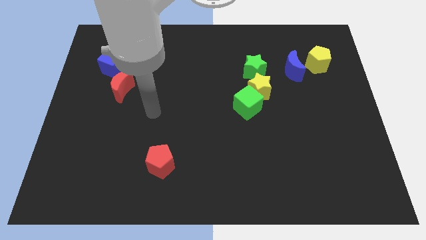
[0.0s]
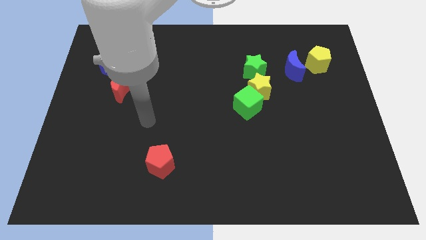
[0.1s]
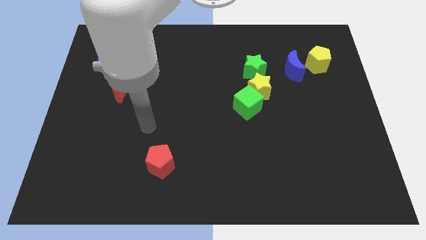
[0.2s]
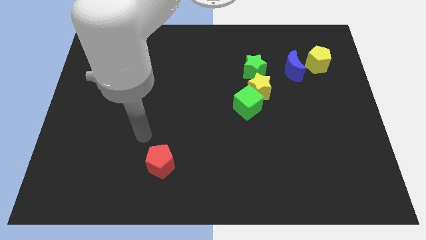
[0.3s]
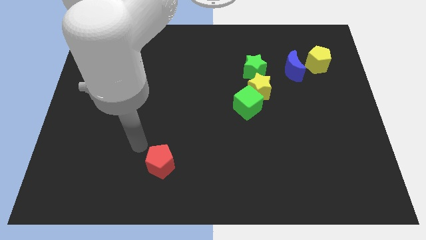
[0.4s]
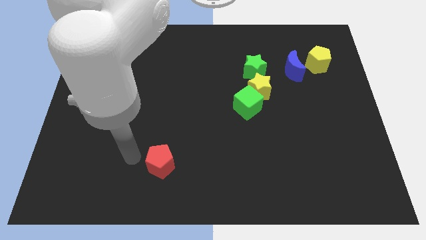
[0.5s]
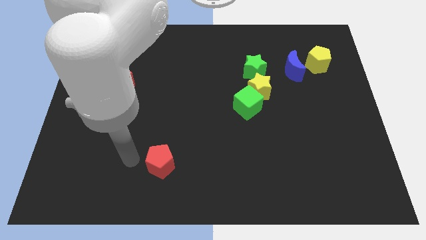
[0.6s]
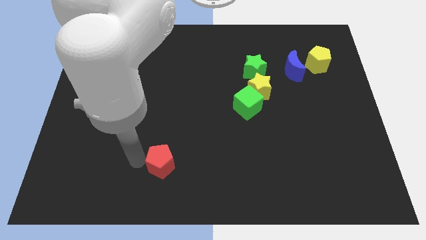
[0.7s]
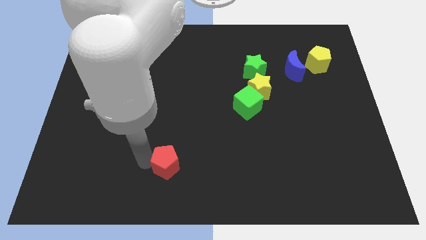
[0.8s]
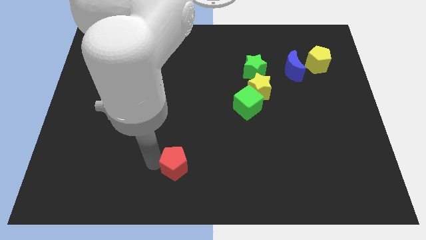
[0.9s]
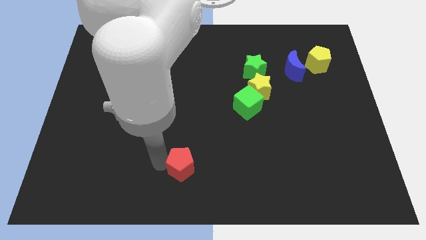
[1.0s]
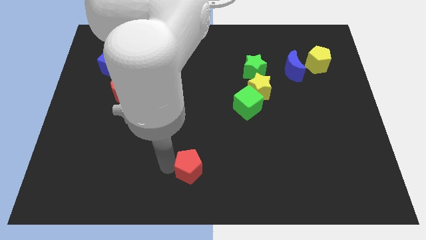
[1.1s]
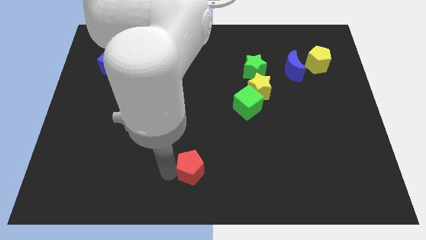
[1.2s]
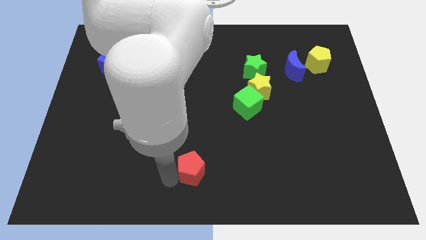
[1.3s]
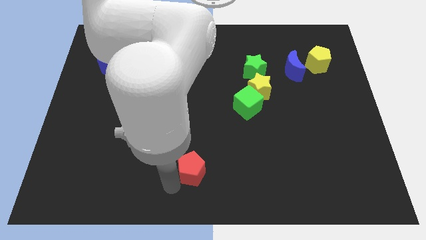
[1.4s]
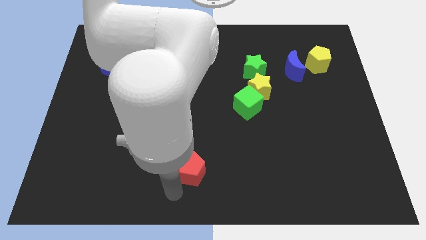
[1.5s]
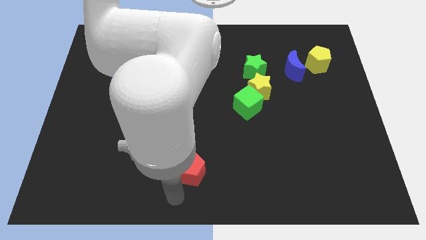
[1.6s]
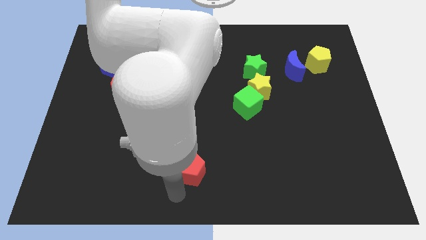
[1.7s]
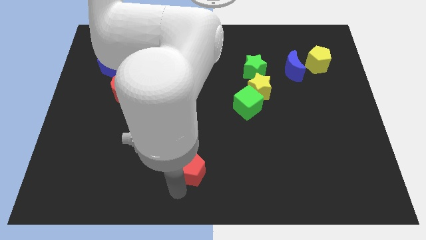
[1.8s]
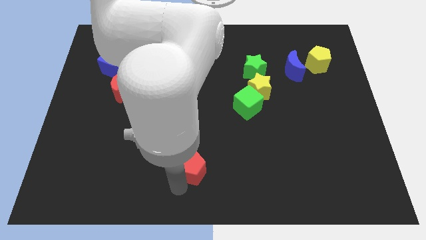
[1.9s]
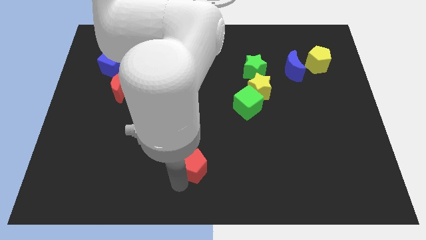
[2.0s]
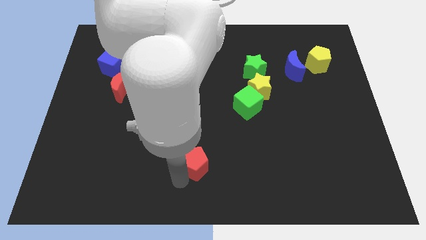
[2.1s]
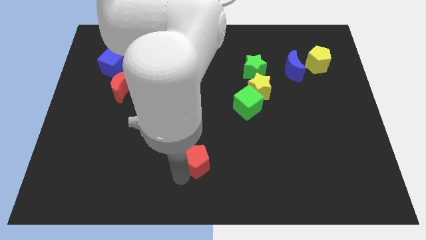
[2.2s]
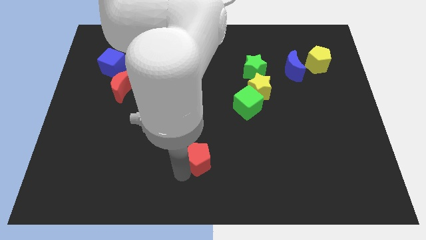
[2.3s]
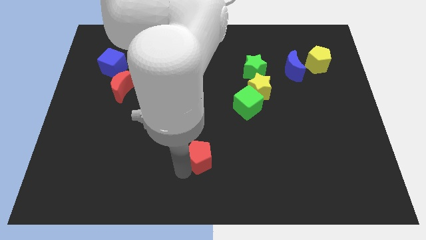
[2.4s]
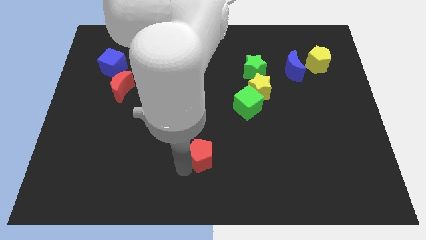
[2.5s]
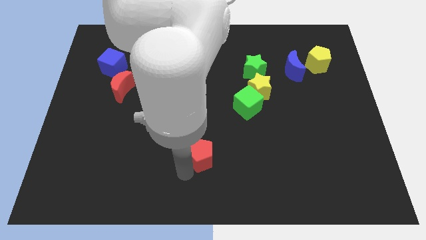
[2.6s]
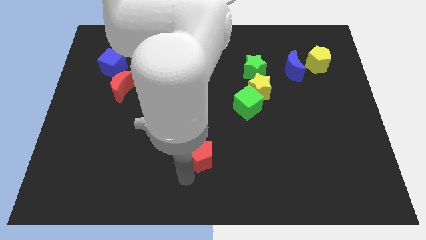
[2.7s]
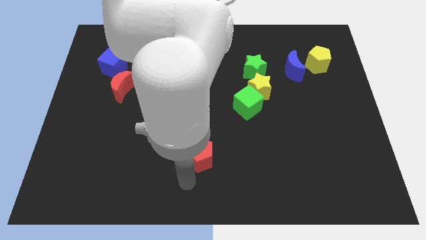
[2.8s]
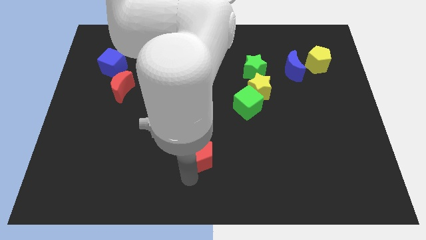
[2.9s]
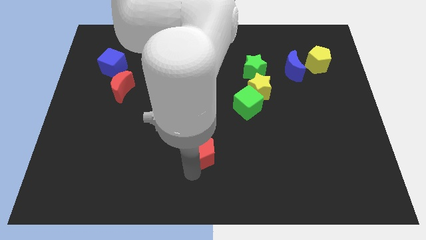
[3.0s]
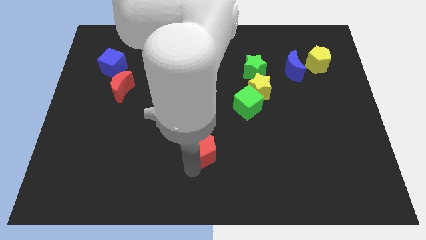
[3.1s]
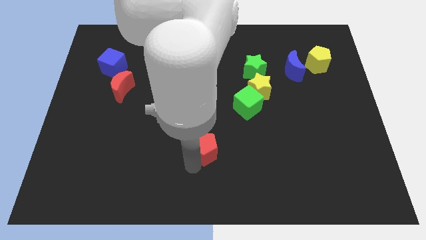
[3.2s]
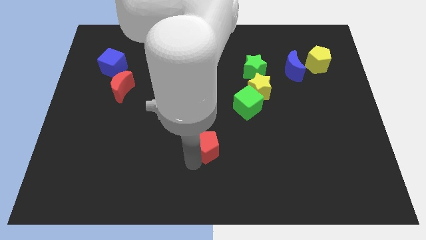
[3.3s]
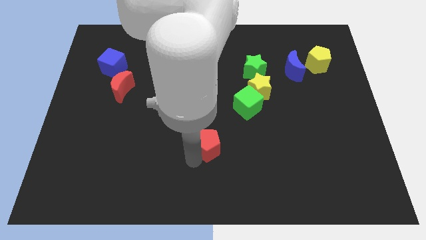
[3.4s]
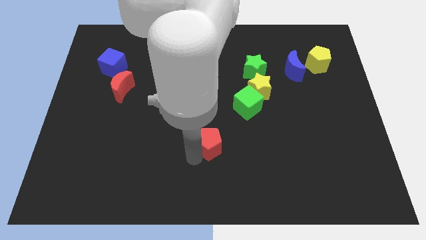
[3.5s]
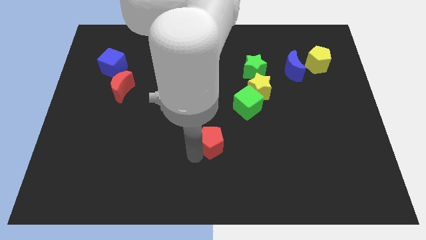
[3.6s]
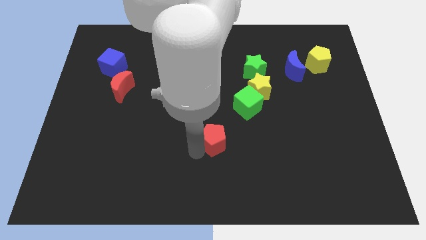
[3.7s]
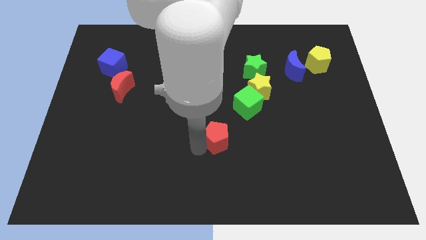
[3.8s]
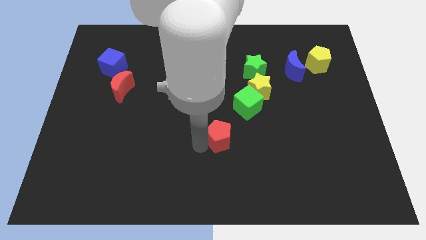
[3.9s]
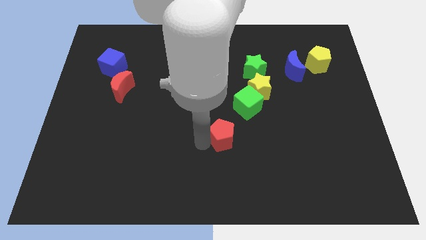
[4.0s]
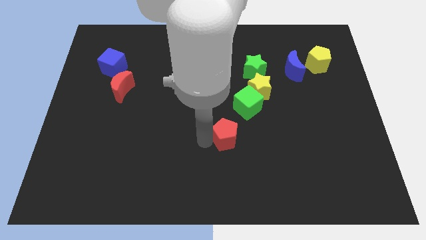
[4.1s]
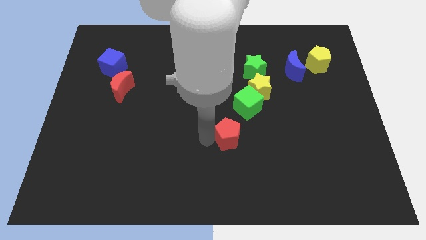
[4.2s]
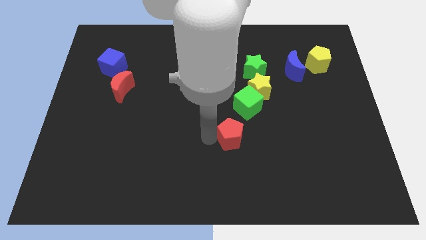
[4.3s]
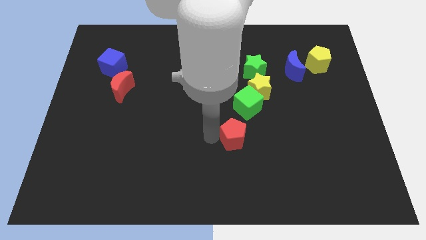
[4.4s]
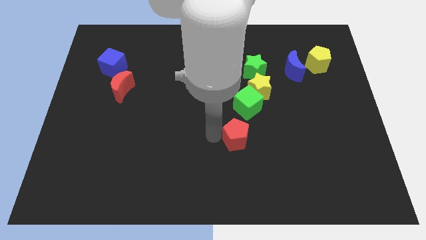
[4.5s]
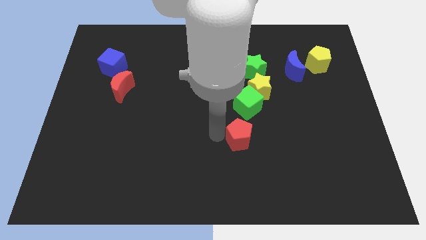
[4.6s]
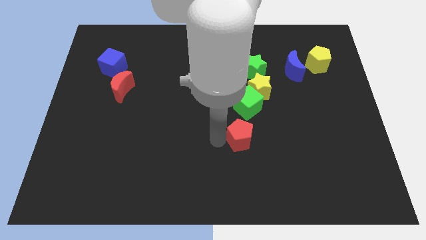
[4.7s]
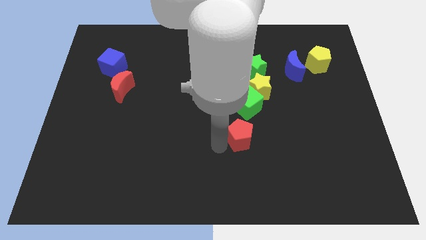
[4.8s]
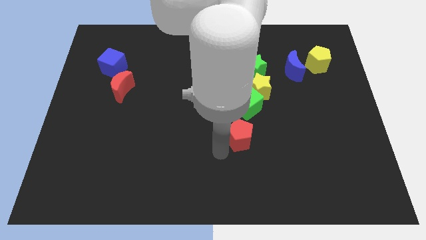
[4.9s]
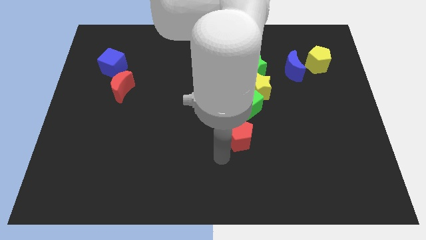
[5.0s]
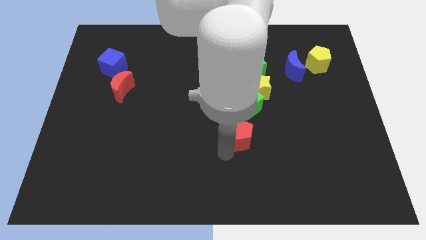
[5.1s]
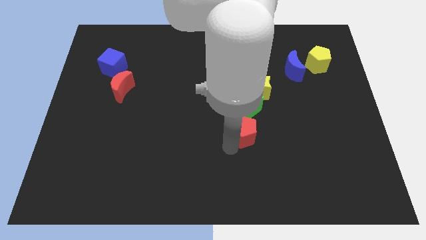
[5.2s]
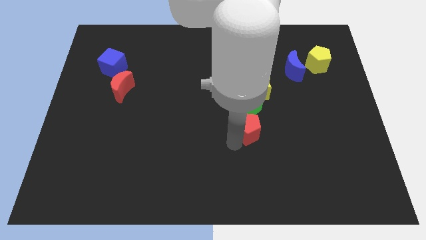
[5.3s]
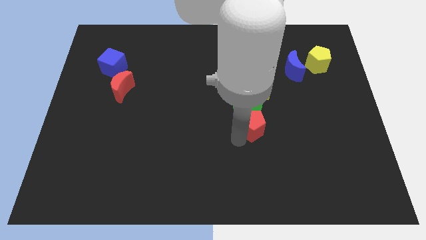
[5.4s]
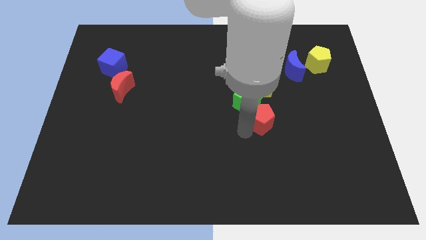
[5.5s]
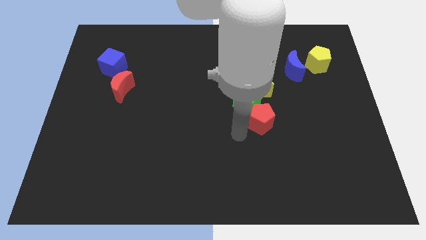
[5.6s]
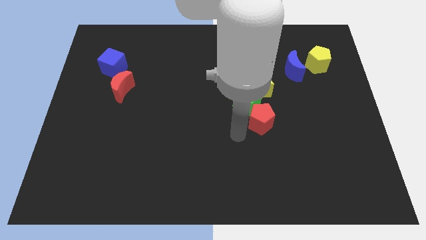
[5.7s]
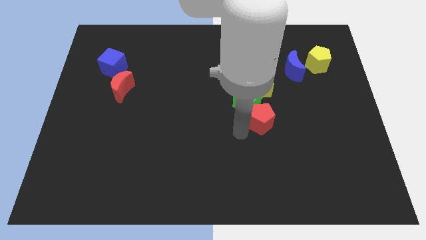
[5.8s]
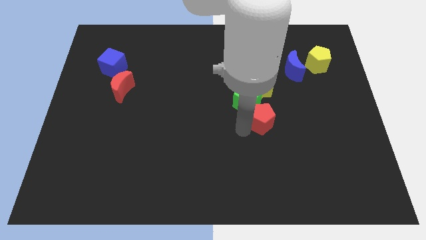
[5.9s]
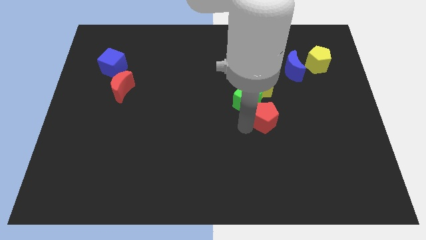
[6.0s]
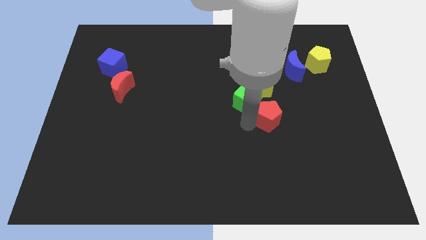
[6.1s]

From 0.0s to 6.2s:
put the red pentagon to the right side of the green cube
